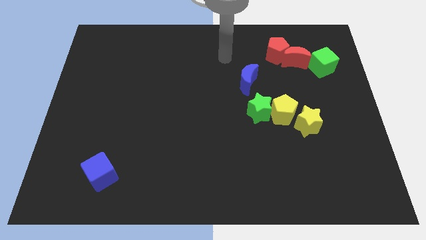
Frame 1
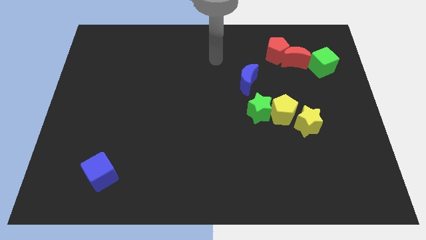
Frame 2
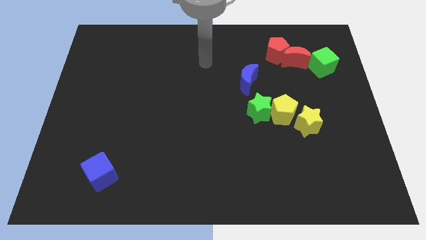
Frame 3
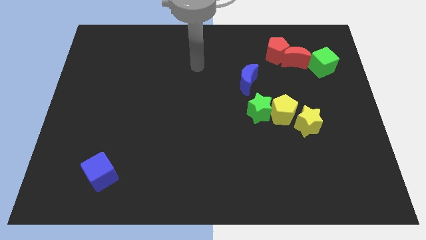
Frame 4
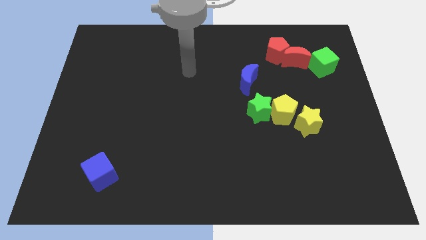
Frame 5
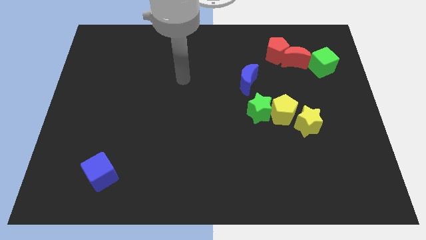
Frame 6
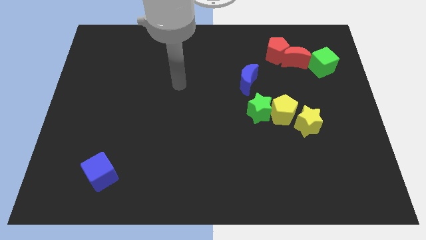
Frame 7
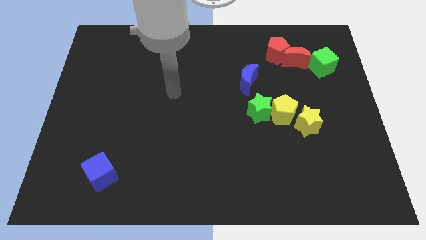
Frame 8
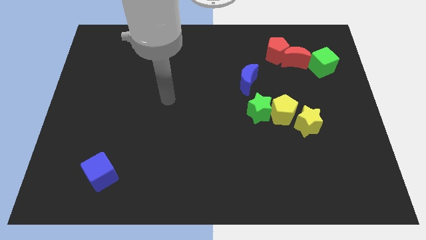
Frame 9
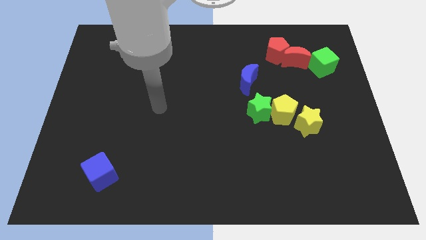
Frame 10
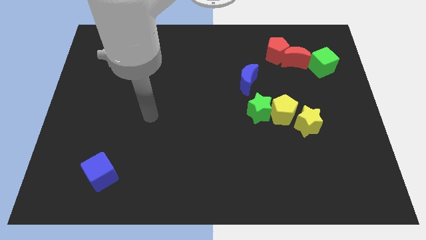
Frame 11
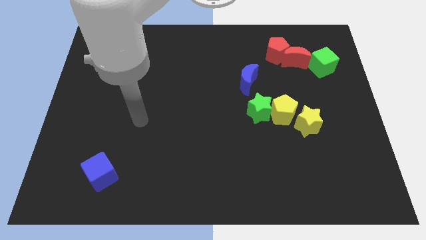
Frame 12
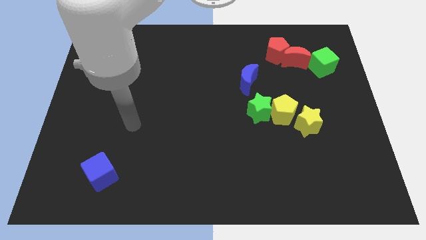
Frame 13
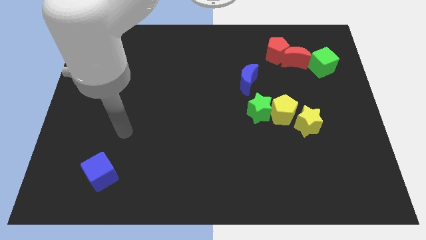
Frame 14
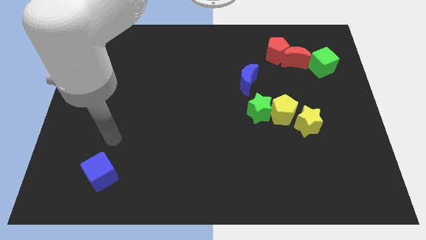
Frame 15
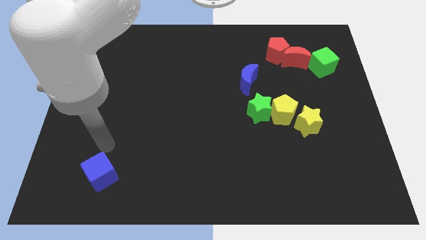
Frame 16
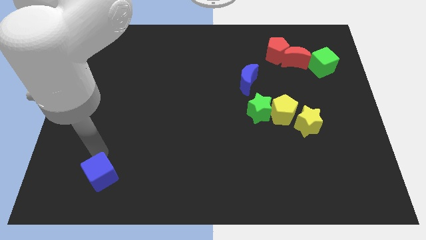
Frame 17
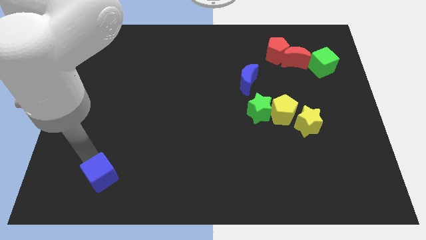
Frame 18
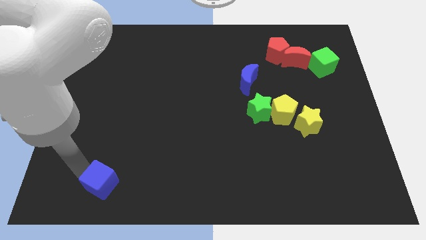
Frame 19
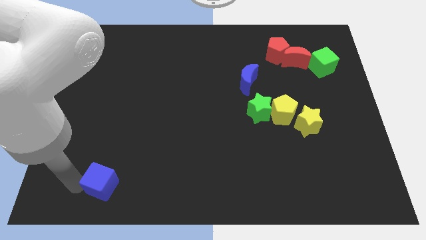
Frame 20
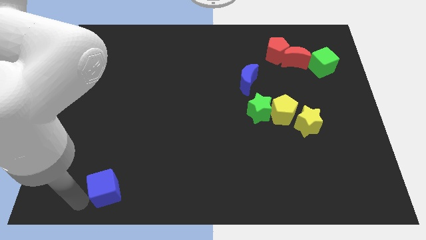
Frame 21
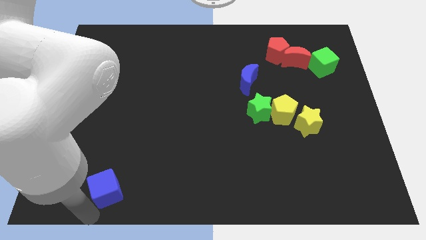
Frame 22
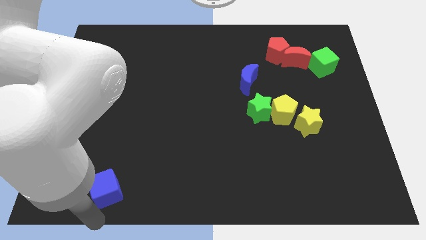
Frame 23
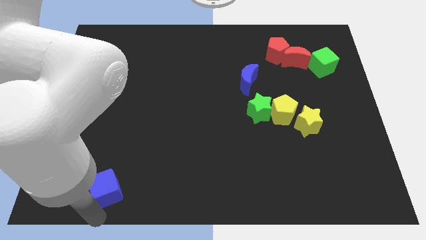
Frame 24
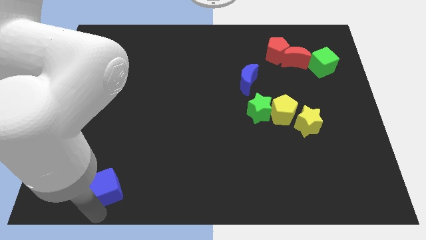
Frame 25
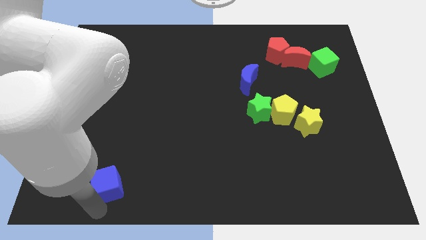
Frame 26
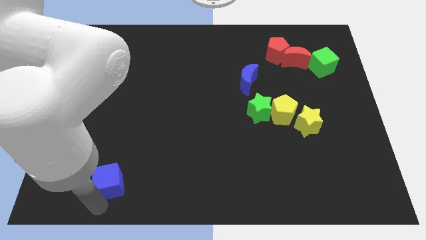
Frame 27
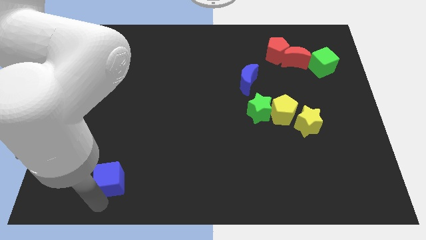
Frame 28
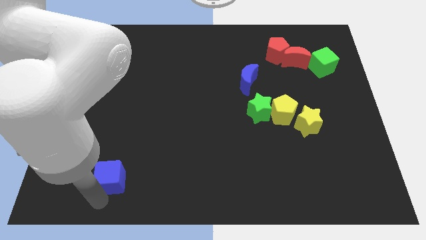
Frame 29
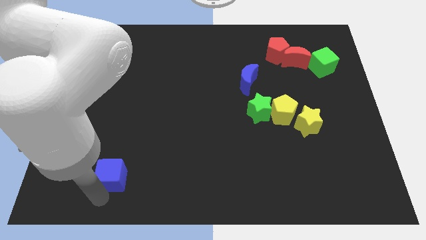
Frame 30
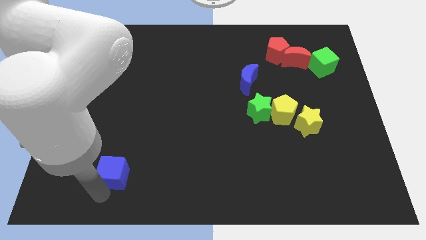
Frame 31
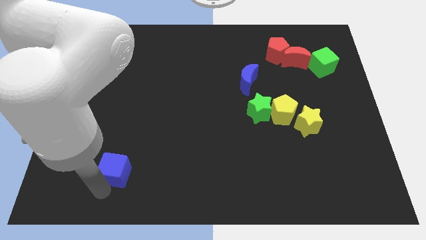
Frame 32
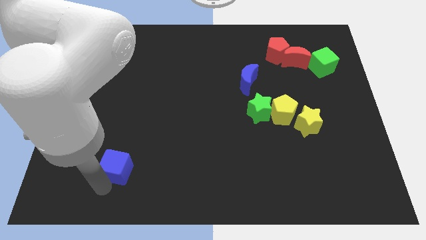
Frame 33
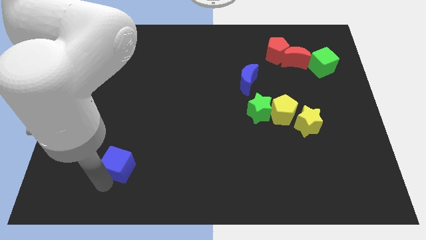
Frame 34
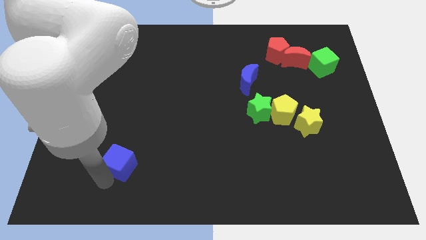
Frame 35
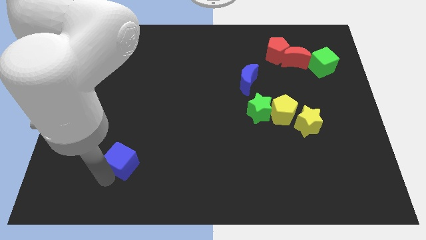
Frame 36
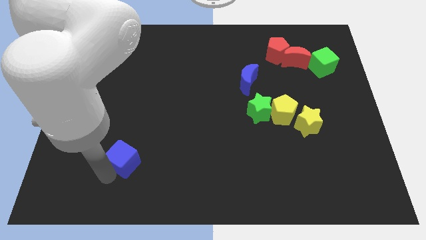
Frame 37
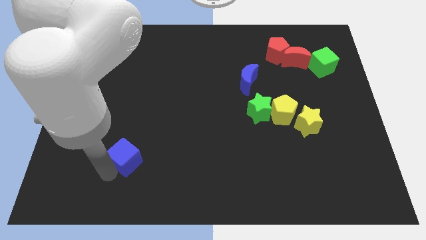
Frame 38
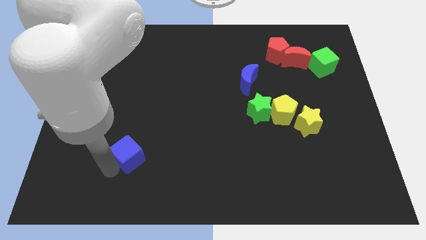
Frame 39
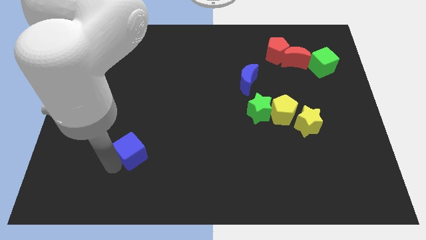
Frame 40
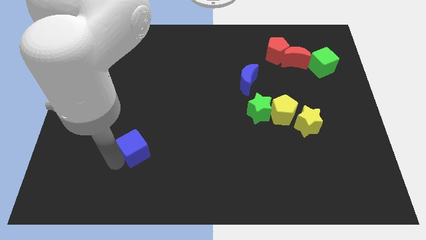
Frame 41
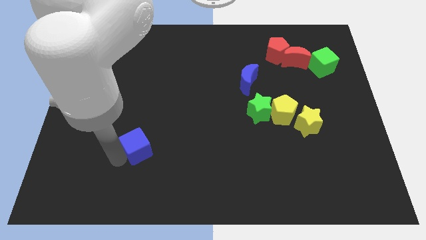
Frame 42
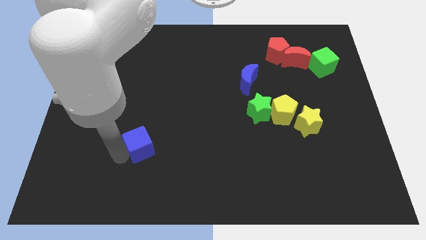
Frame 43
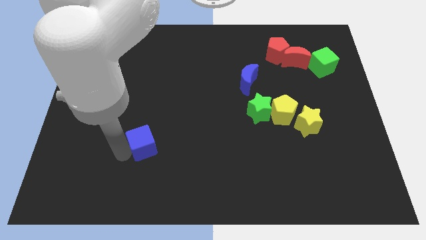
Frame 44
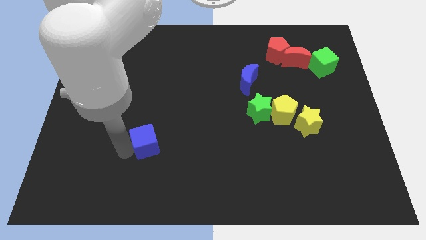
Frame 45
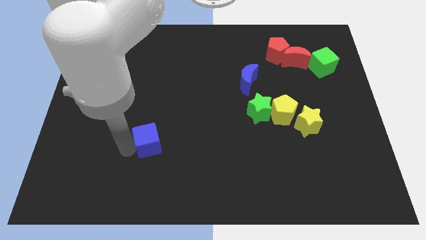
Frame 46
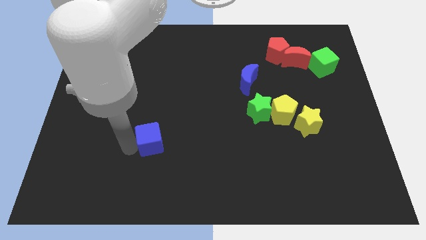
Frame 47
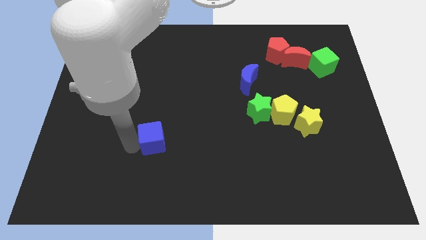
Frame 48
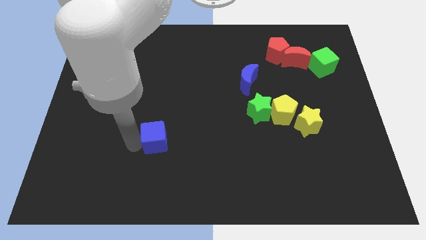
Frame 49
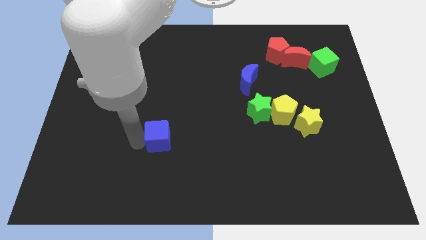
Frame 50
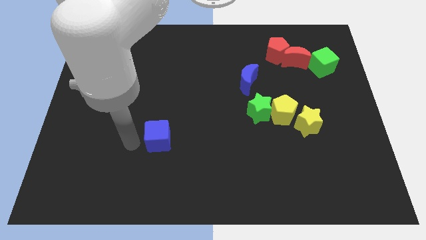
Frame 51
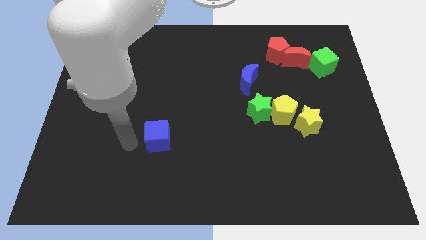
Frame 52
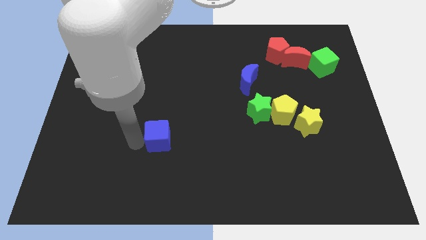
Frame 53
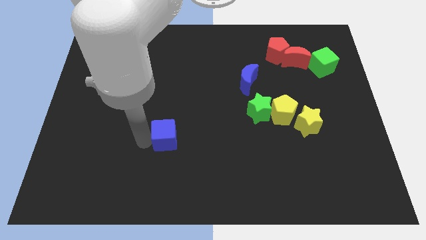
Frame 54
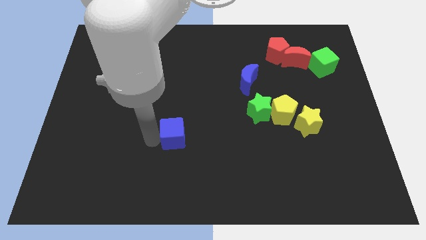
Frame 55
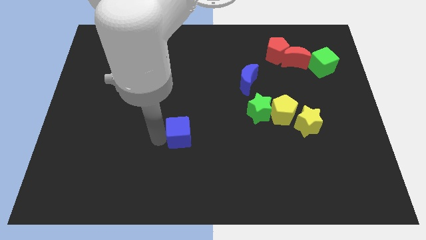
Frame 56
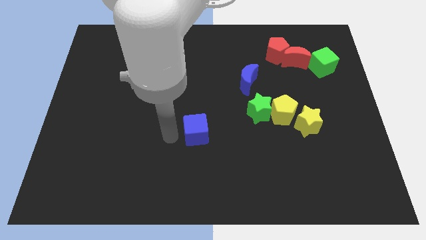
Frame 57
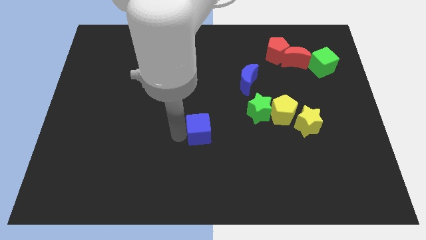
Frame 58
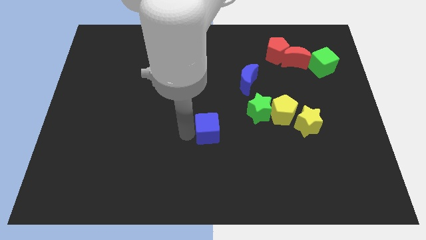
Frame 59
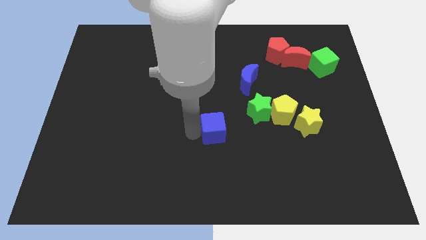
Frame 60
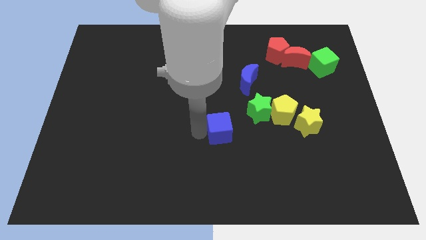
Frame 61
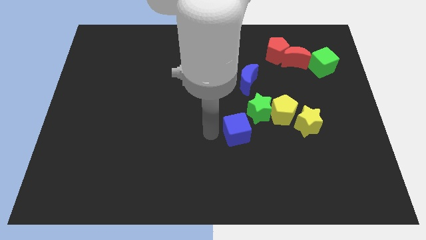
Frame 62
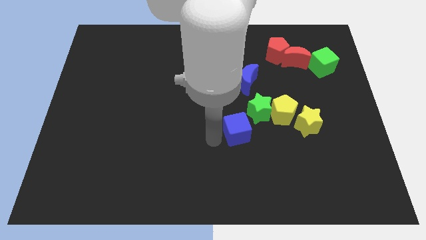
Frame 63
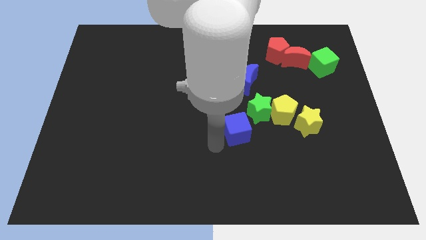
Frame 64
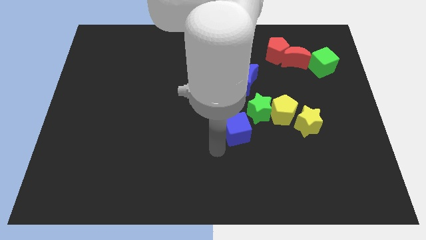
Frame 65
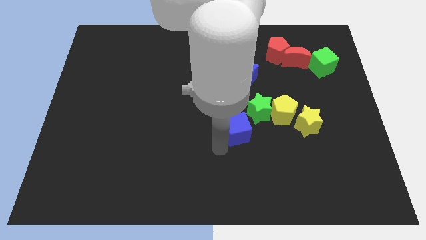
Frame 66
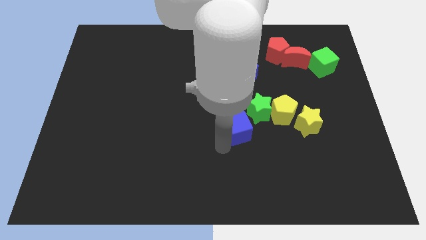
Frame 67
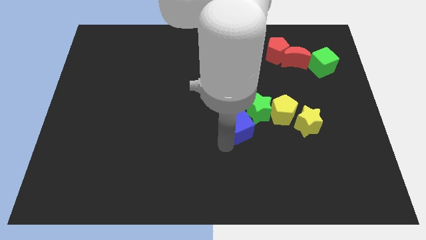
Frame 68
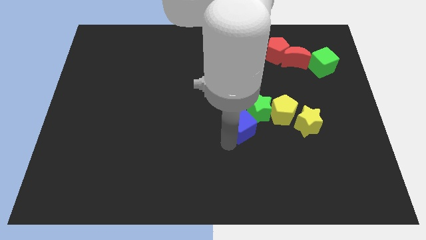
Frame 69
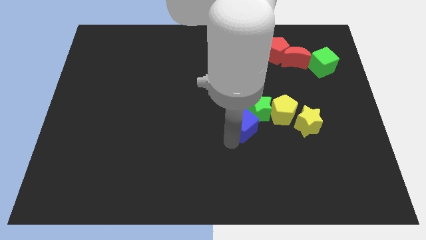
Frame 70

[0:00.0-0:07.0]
slide the blue cube close to the green star
